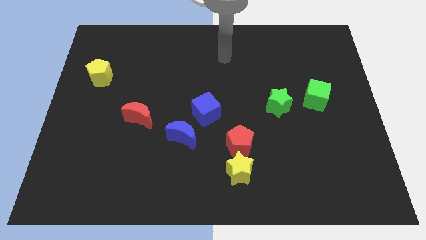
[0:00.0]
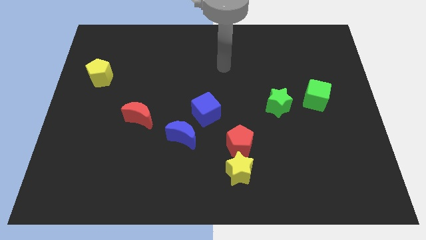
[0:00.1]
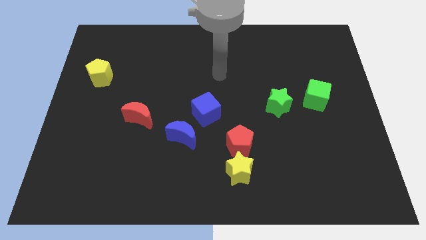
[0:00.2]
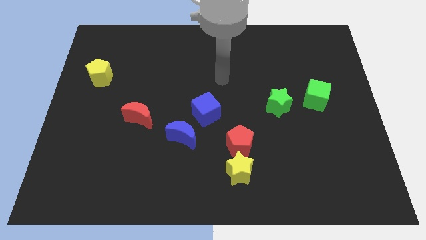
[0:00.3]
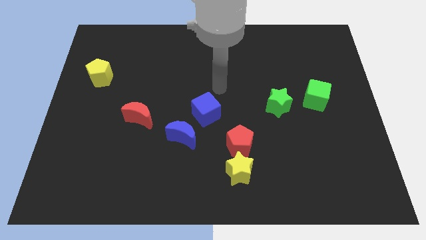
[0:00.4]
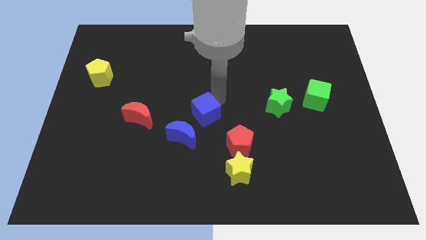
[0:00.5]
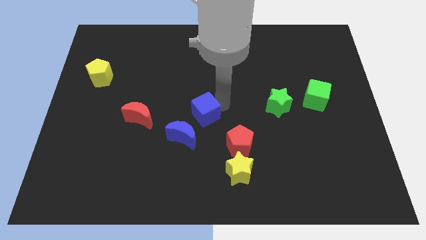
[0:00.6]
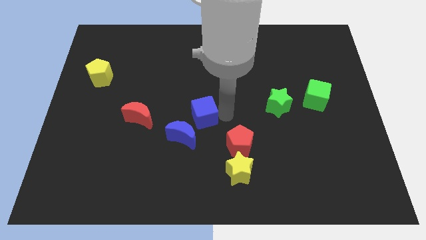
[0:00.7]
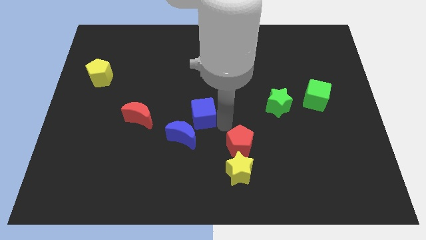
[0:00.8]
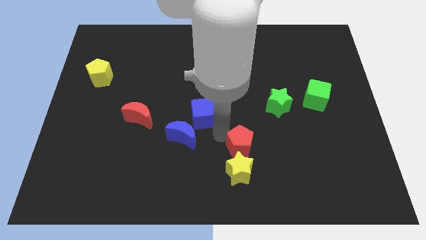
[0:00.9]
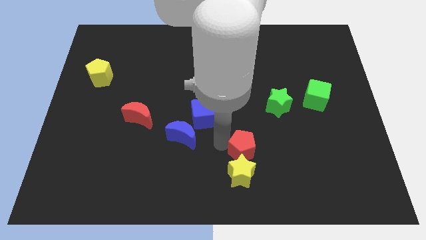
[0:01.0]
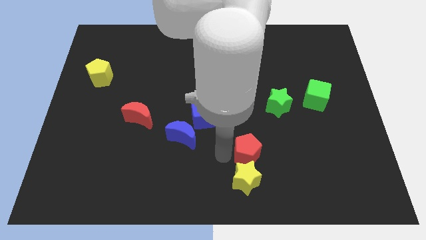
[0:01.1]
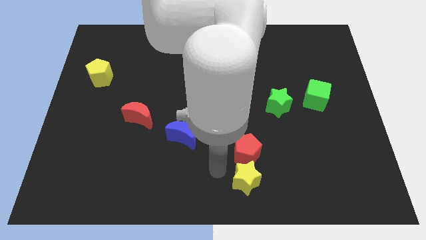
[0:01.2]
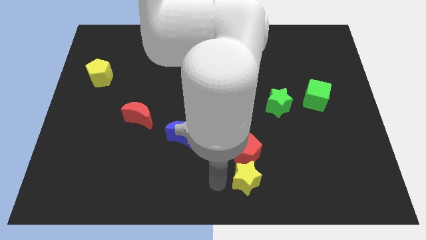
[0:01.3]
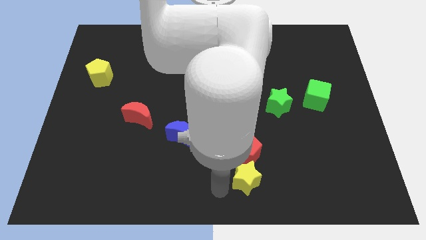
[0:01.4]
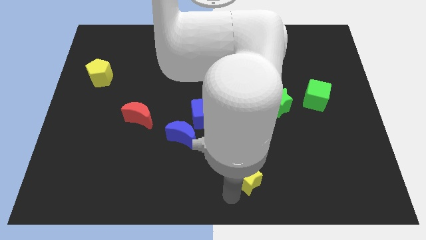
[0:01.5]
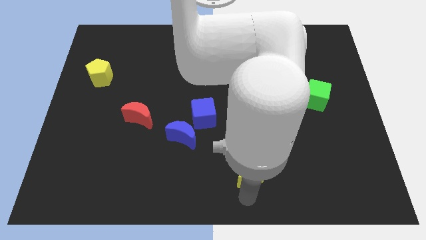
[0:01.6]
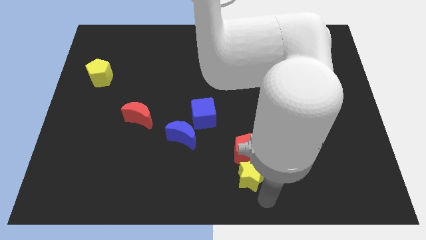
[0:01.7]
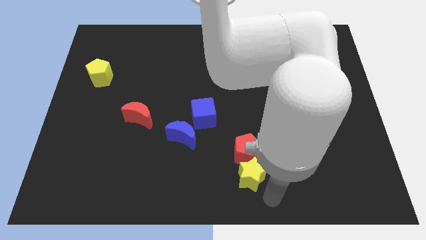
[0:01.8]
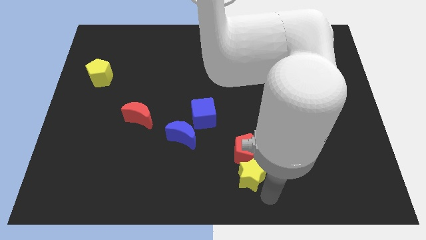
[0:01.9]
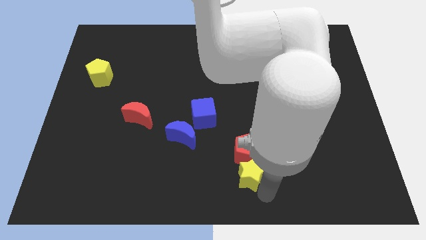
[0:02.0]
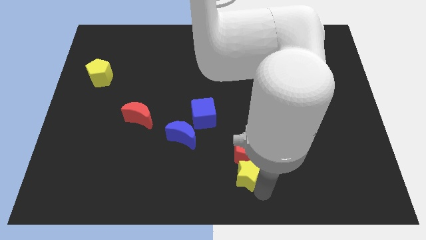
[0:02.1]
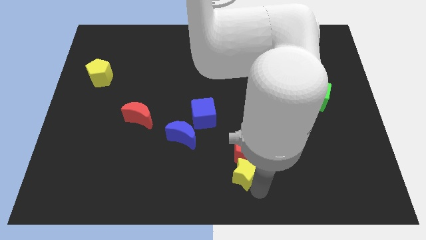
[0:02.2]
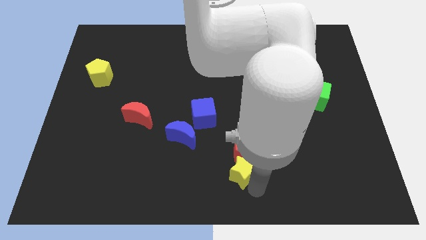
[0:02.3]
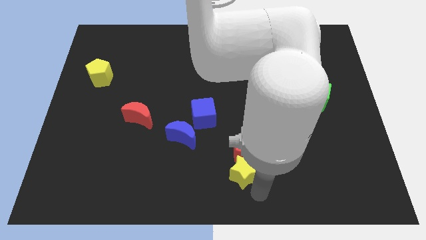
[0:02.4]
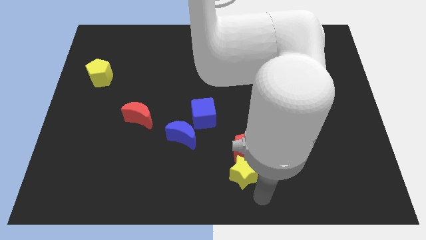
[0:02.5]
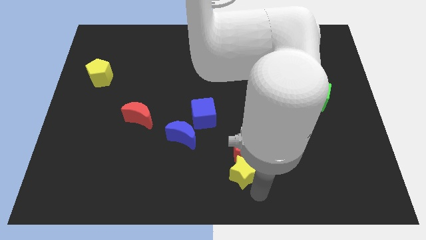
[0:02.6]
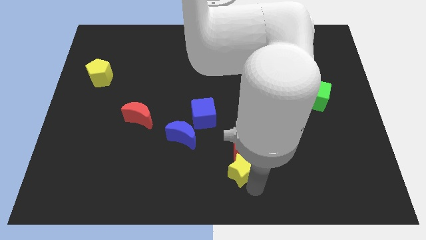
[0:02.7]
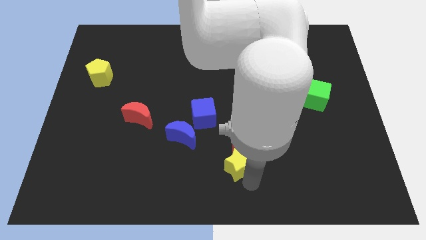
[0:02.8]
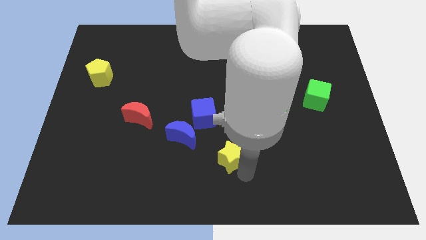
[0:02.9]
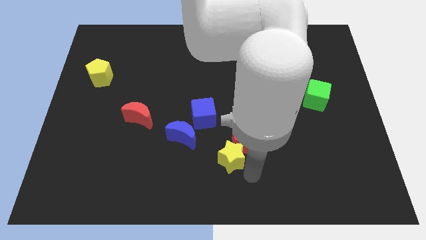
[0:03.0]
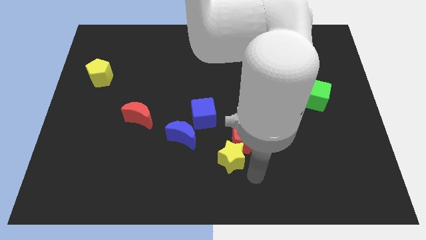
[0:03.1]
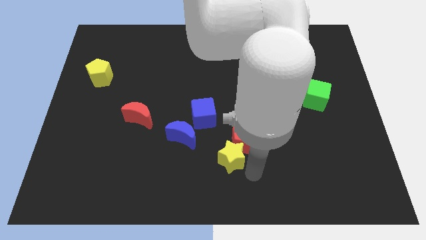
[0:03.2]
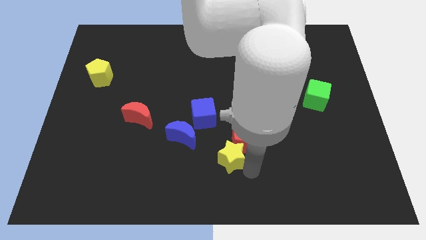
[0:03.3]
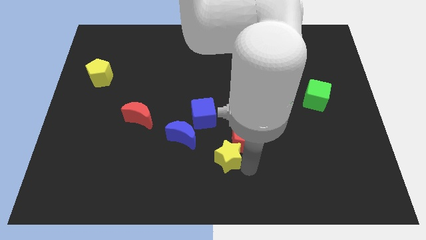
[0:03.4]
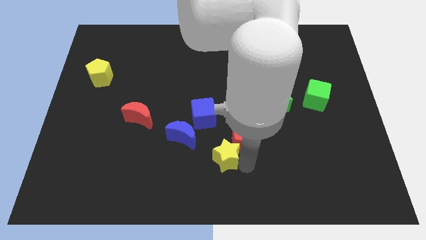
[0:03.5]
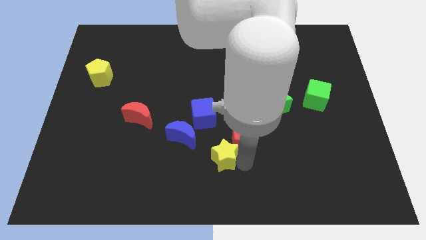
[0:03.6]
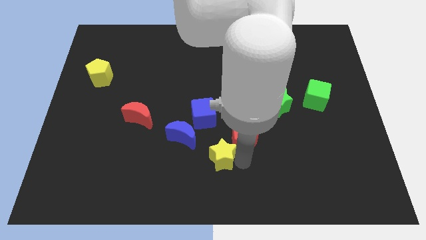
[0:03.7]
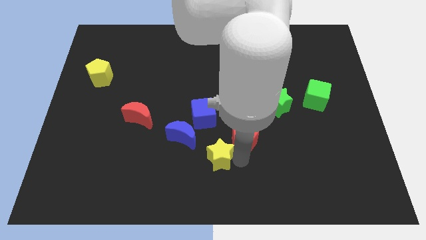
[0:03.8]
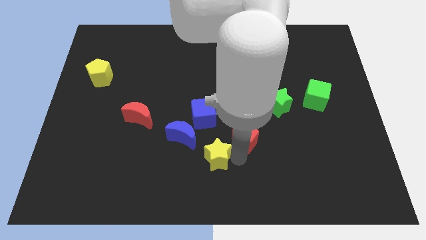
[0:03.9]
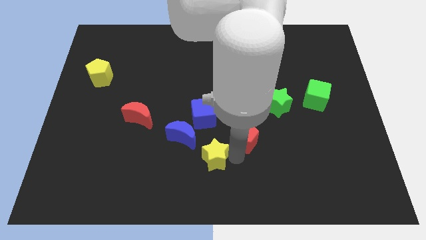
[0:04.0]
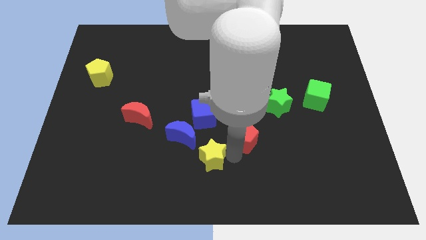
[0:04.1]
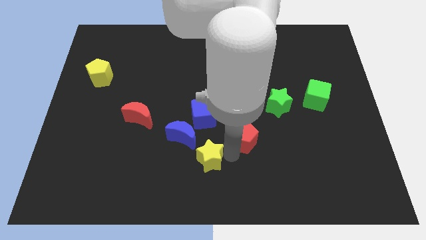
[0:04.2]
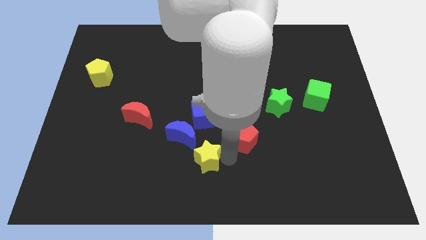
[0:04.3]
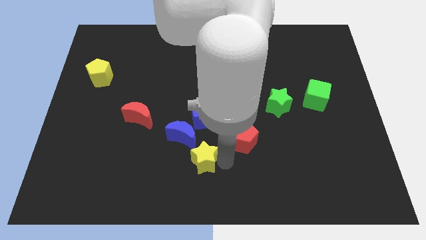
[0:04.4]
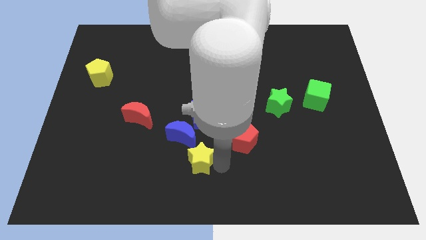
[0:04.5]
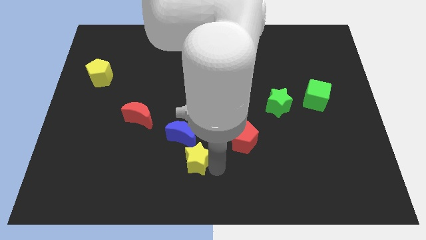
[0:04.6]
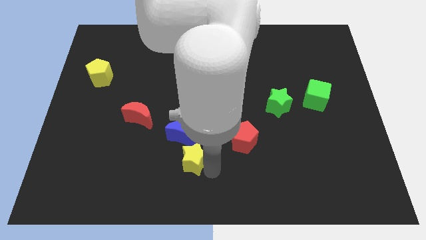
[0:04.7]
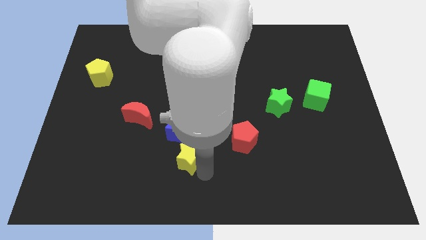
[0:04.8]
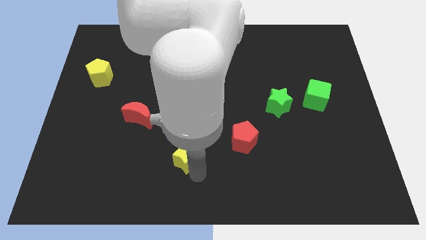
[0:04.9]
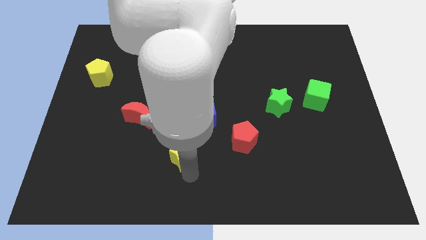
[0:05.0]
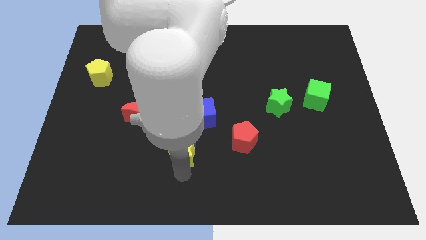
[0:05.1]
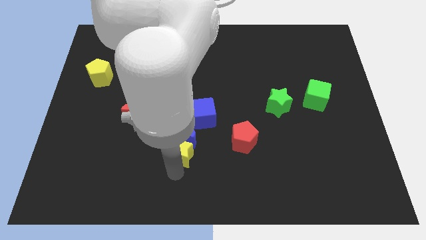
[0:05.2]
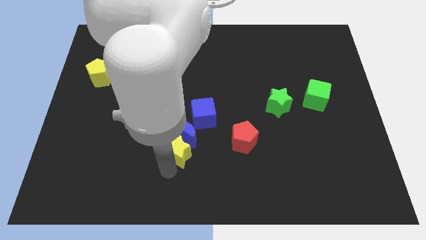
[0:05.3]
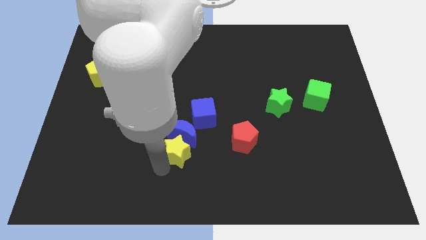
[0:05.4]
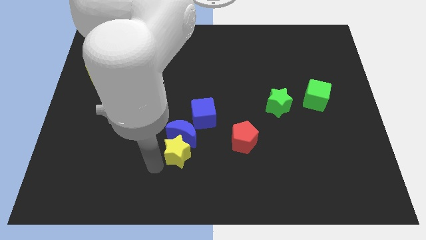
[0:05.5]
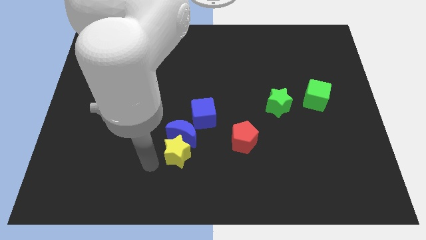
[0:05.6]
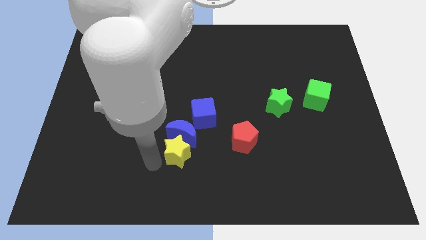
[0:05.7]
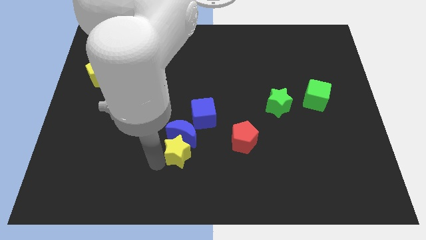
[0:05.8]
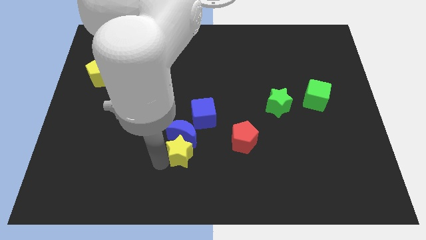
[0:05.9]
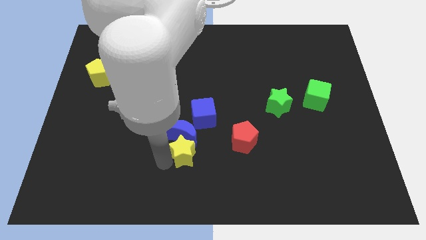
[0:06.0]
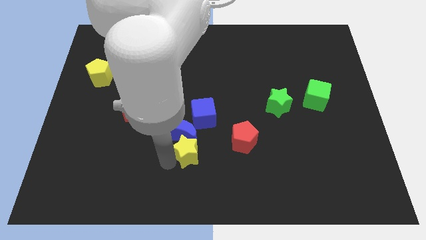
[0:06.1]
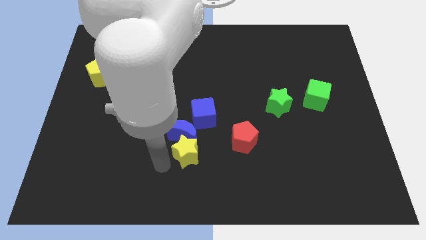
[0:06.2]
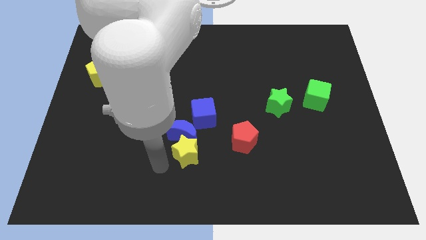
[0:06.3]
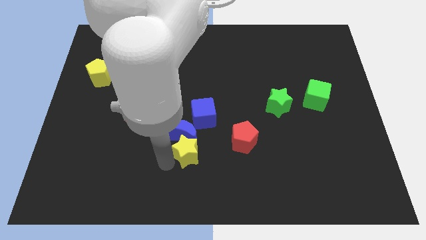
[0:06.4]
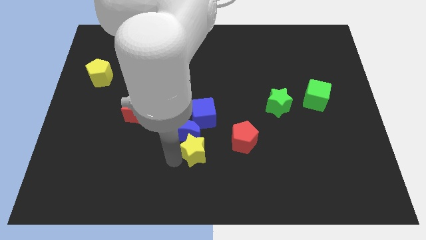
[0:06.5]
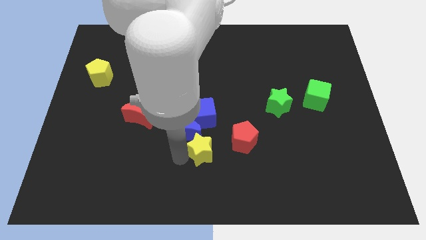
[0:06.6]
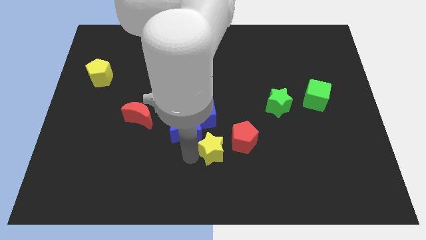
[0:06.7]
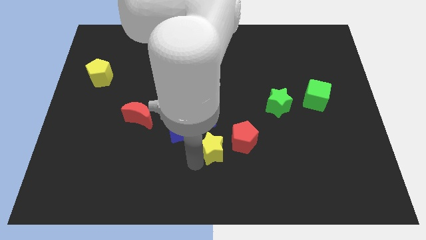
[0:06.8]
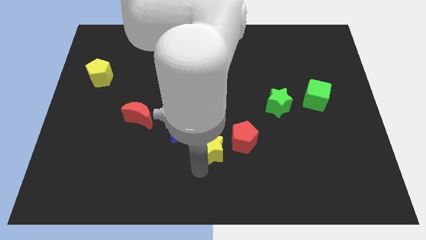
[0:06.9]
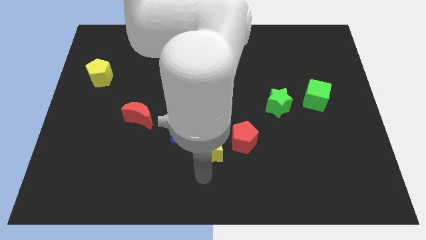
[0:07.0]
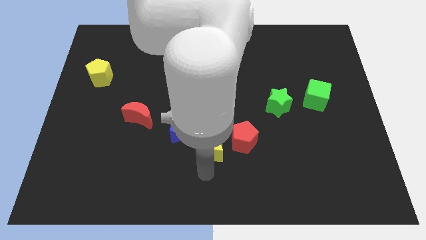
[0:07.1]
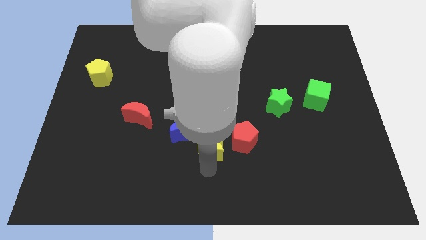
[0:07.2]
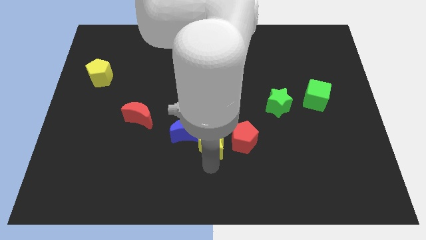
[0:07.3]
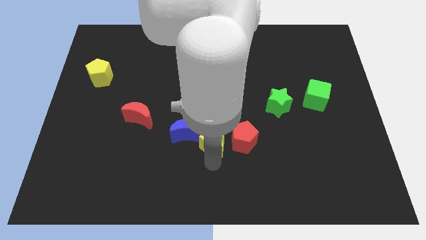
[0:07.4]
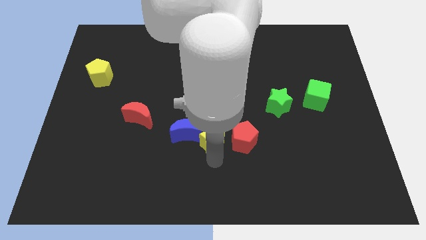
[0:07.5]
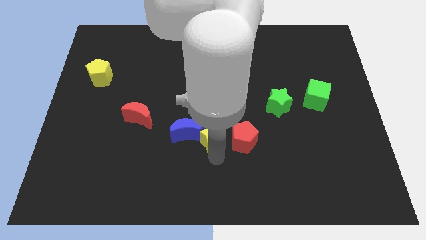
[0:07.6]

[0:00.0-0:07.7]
slightly slide the yellow star upwards

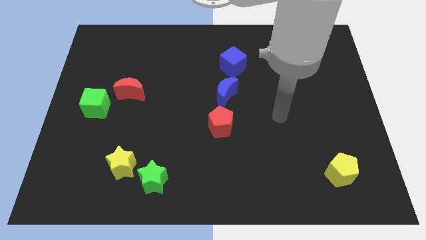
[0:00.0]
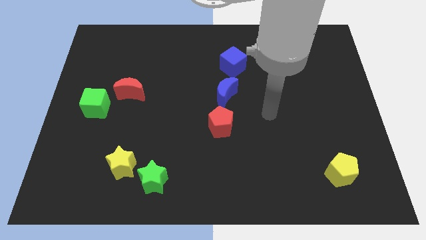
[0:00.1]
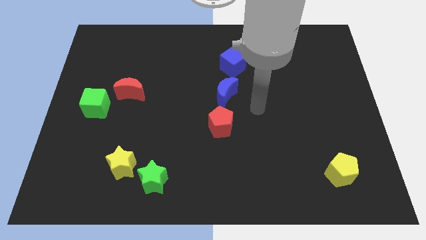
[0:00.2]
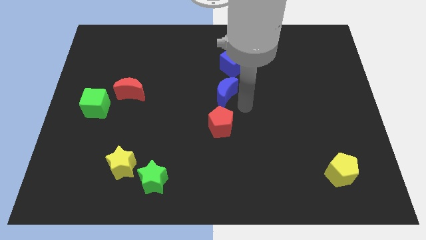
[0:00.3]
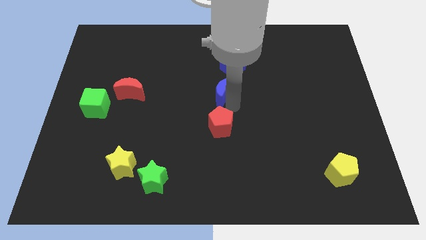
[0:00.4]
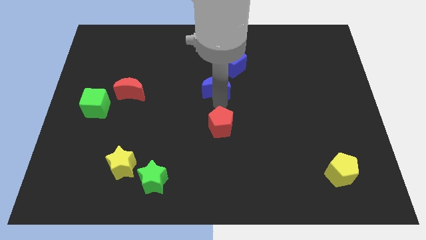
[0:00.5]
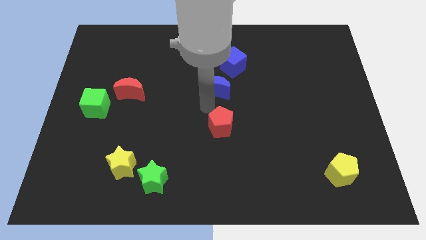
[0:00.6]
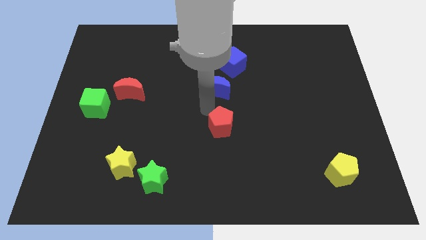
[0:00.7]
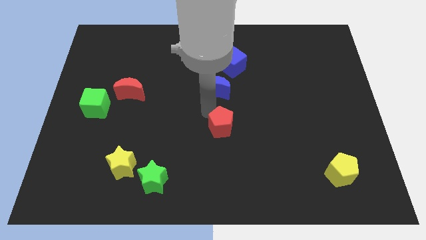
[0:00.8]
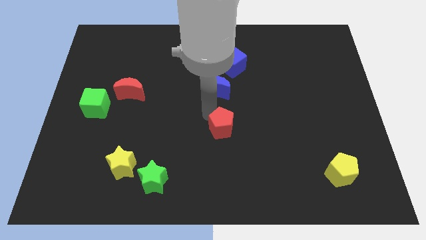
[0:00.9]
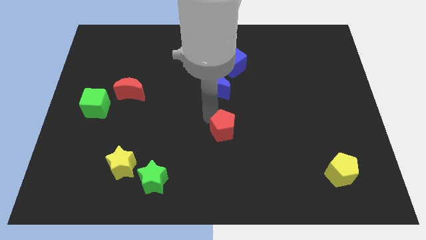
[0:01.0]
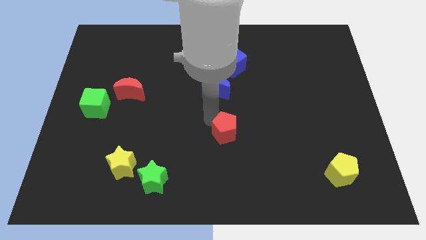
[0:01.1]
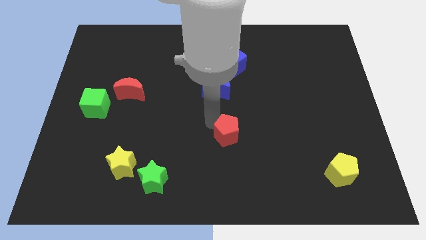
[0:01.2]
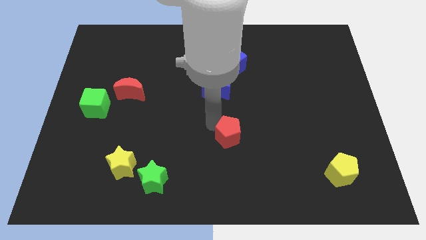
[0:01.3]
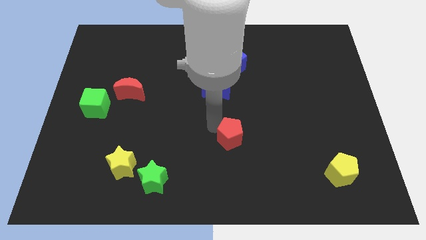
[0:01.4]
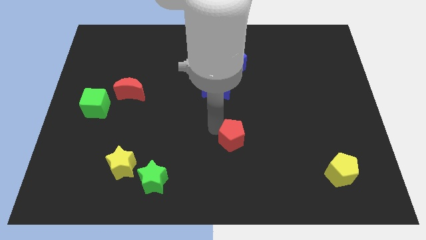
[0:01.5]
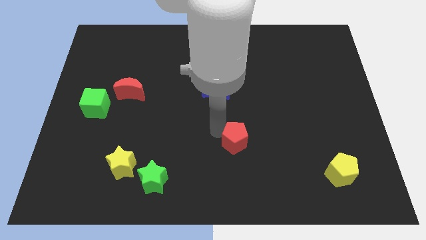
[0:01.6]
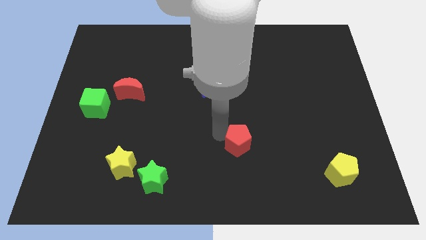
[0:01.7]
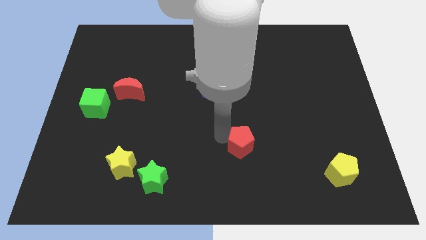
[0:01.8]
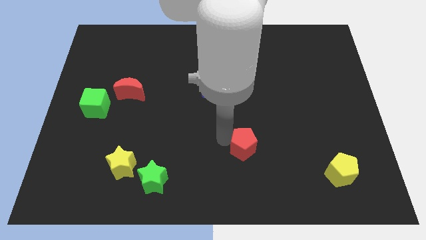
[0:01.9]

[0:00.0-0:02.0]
slightly slide the red pentagon downwards and right
